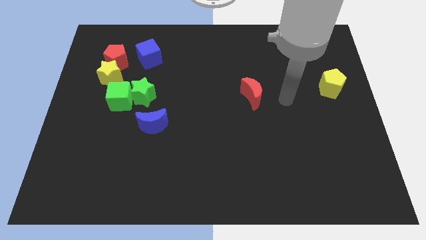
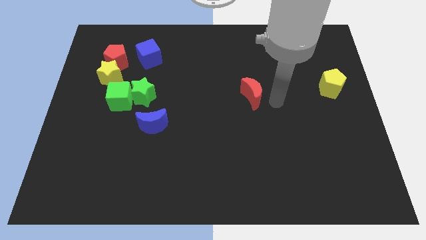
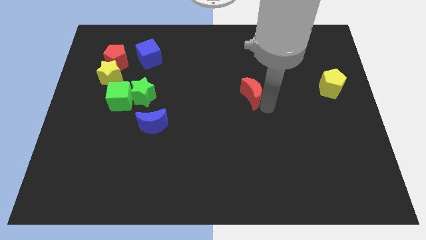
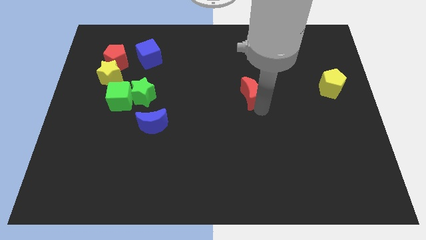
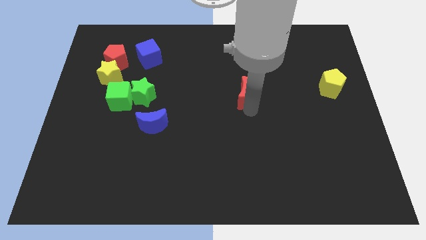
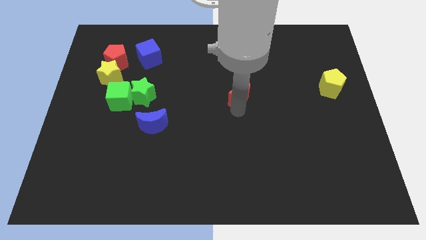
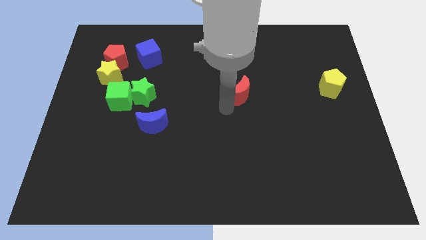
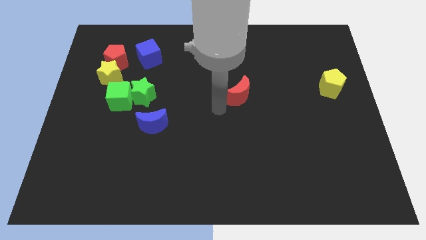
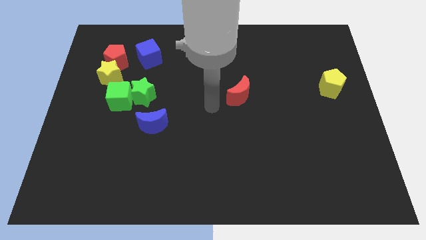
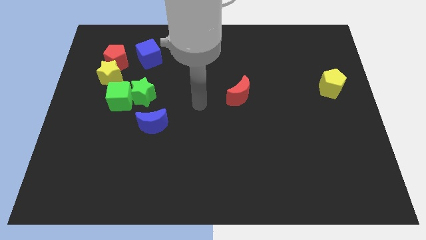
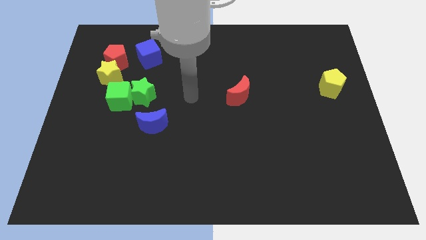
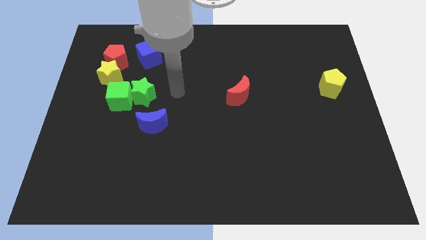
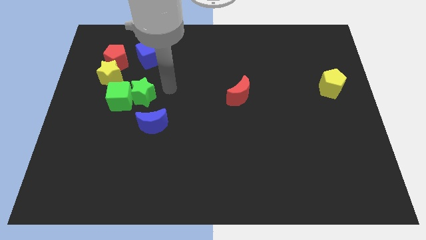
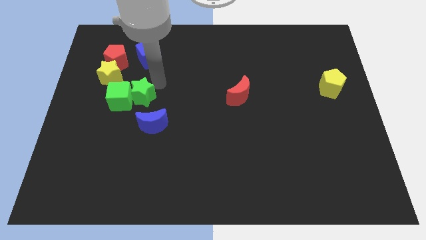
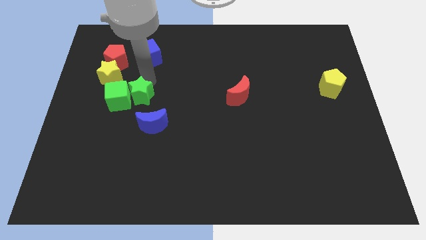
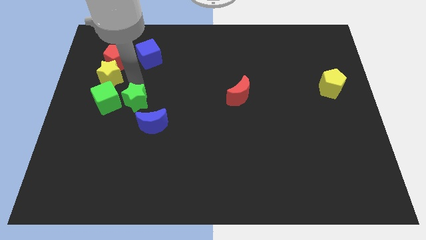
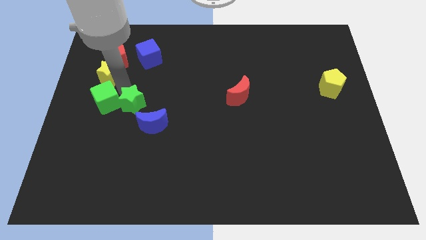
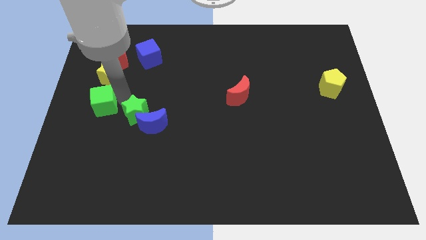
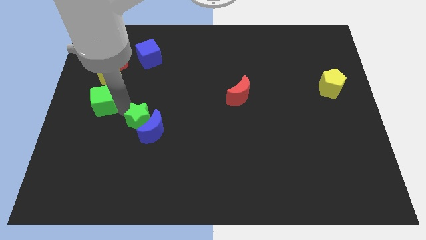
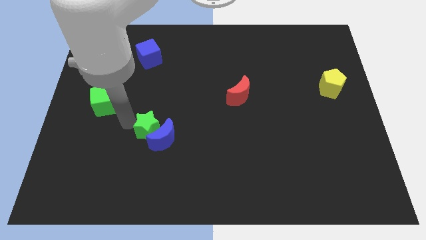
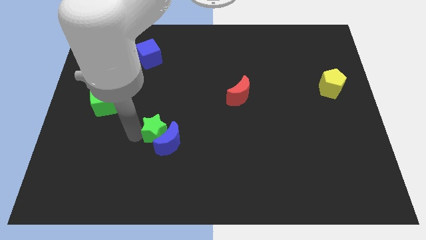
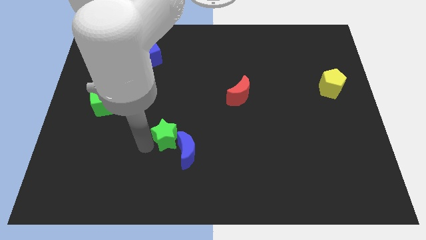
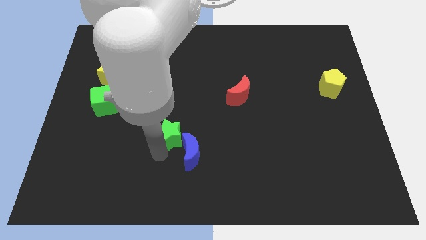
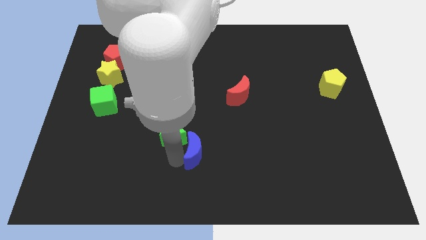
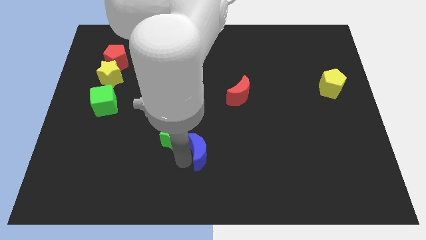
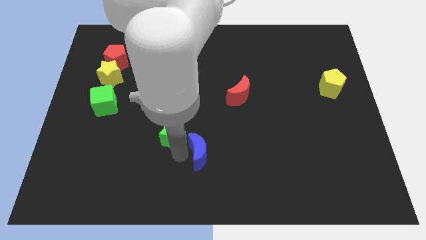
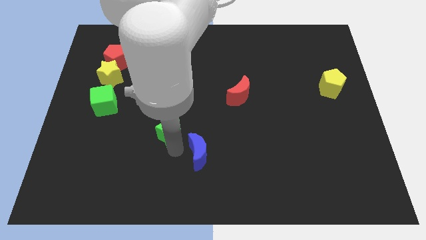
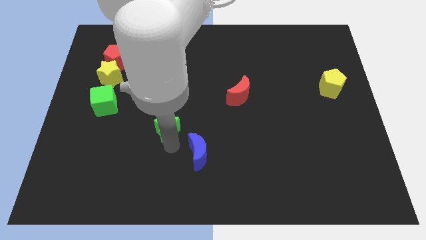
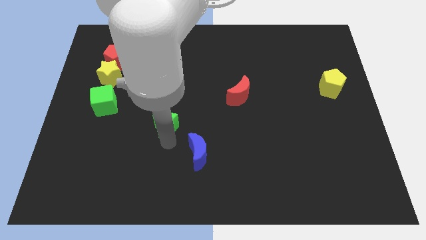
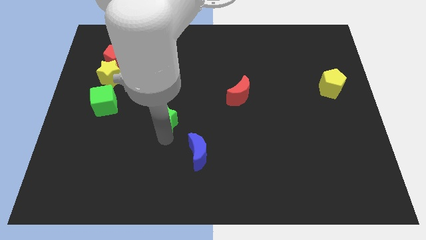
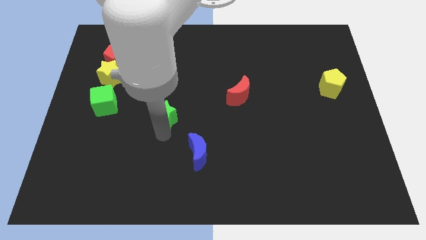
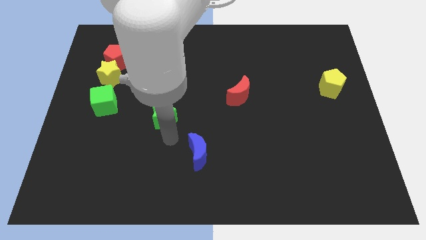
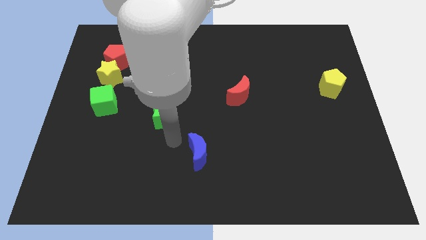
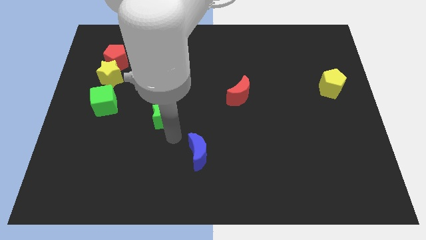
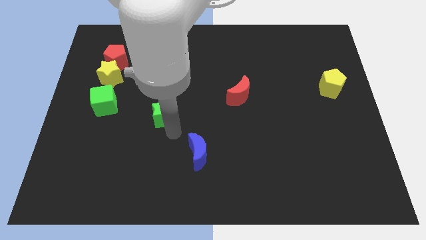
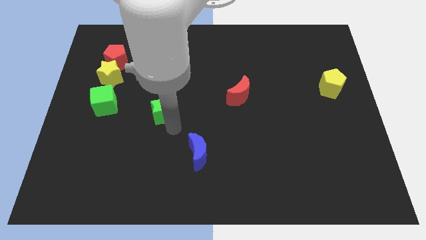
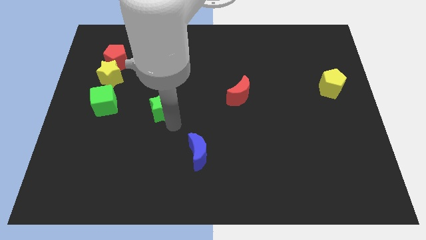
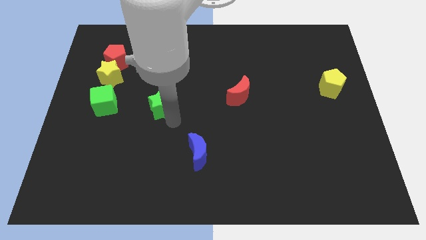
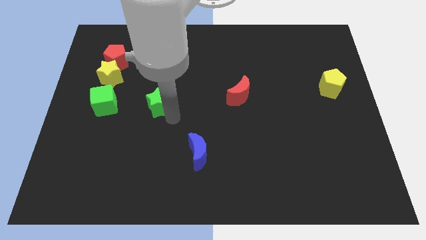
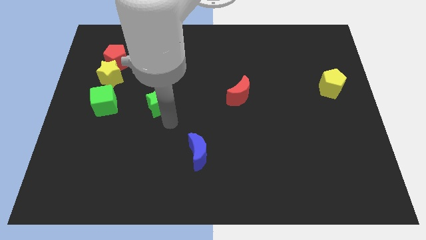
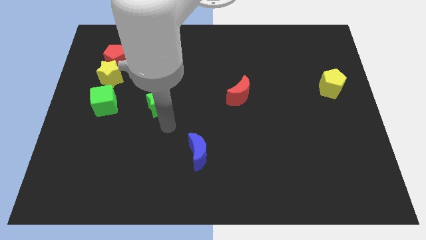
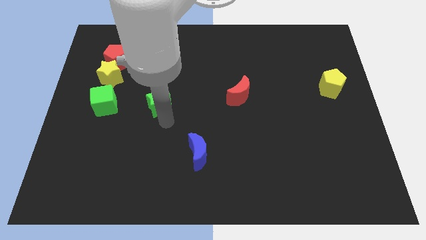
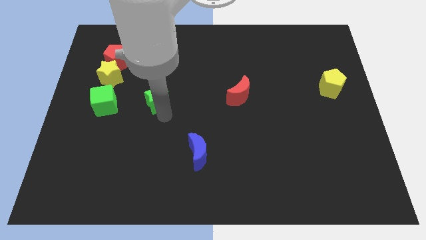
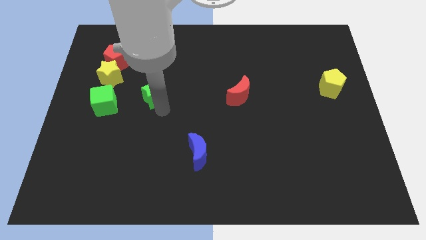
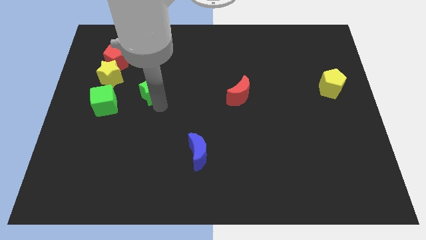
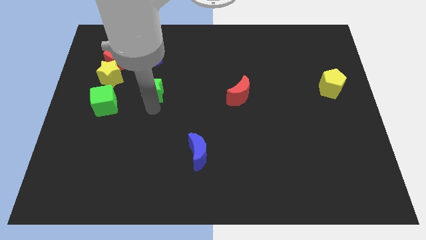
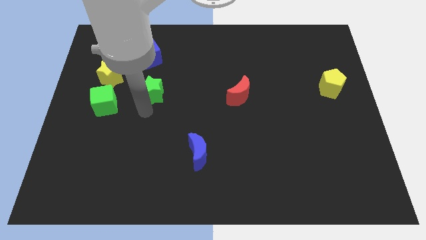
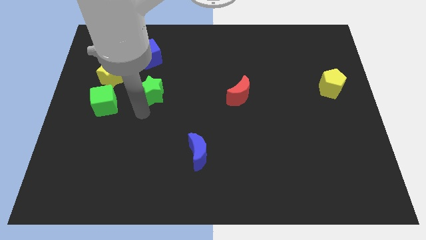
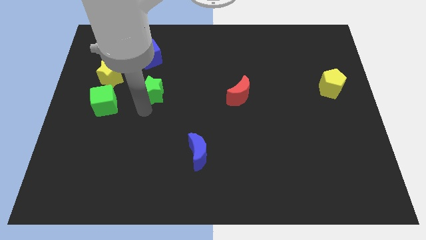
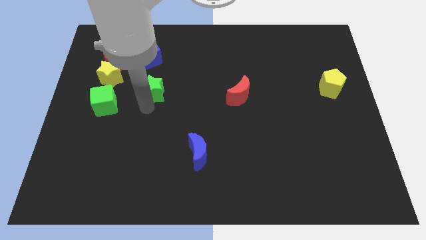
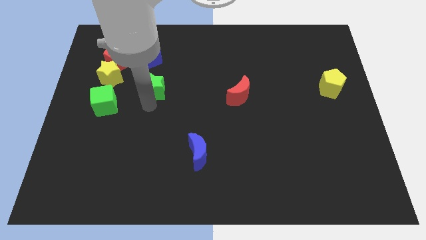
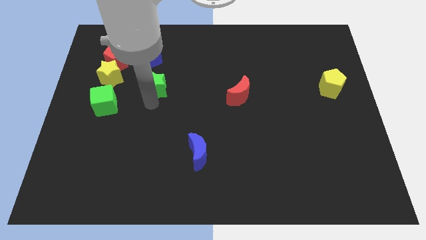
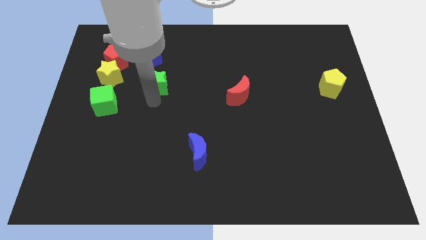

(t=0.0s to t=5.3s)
put the green star to the bottom right side of the blue cube

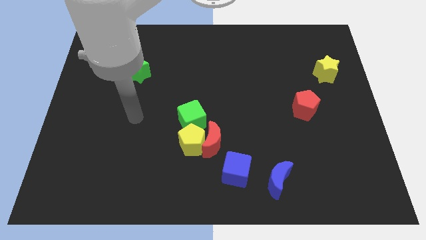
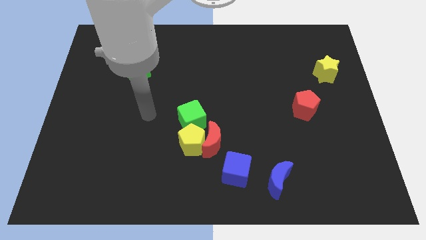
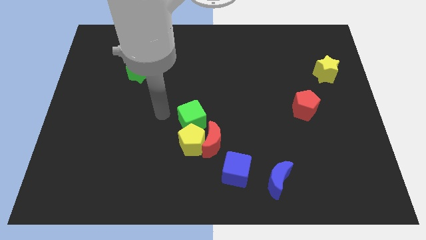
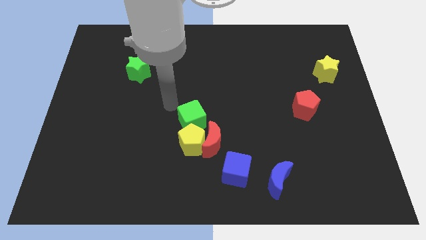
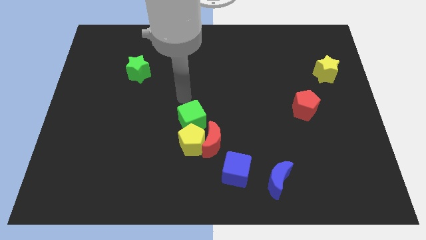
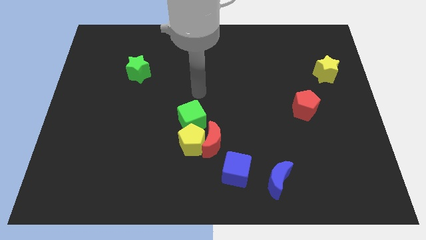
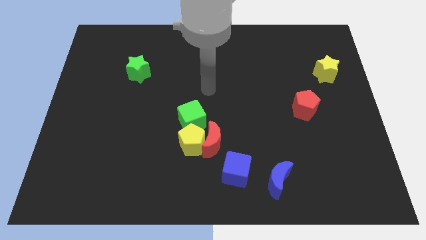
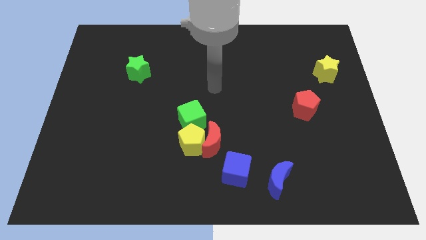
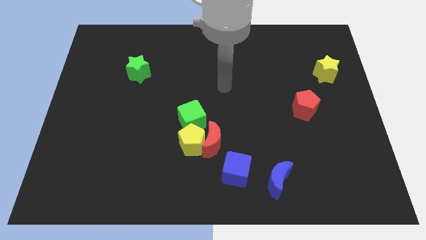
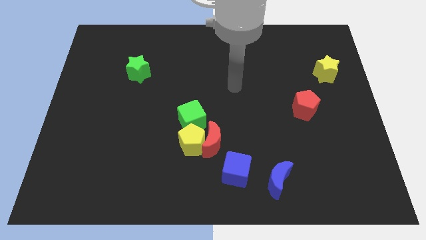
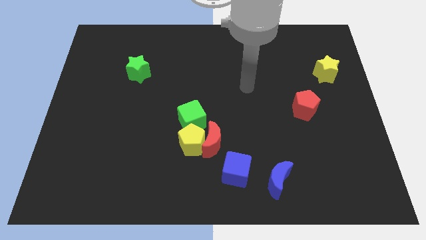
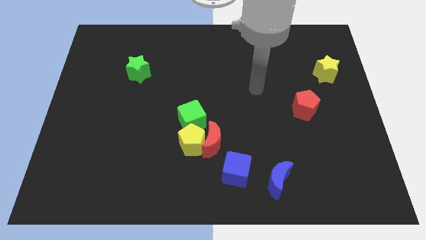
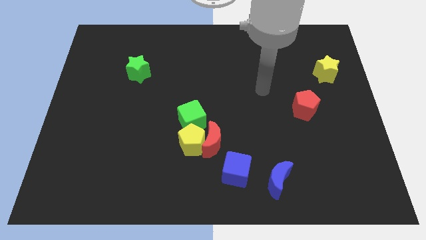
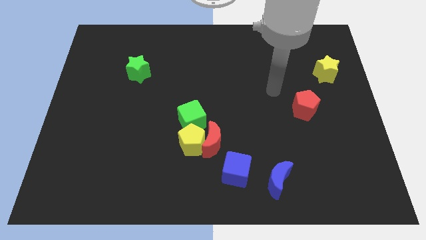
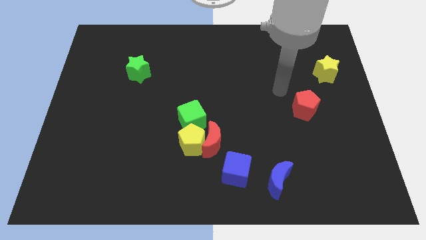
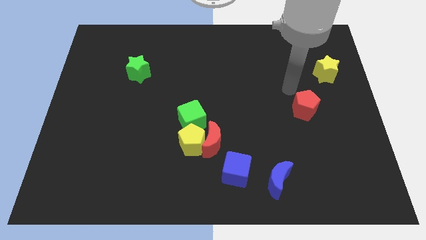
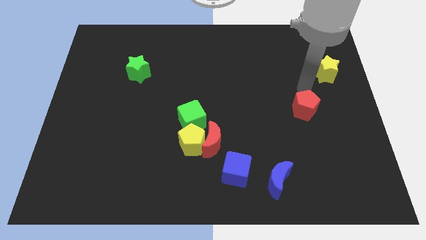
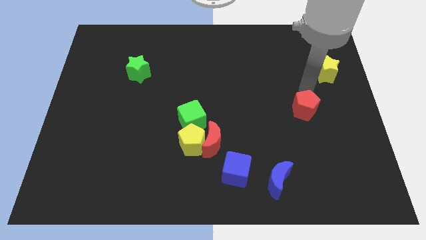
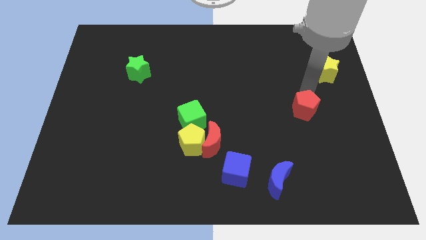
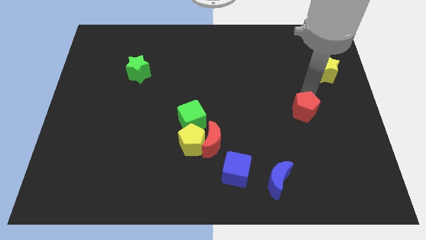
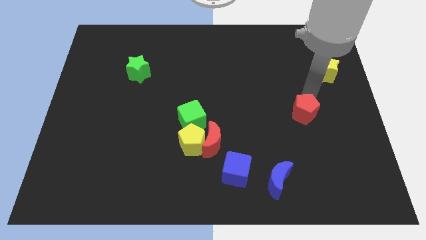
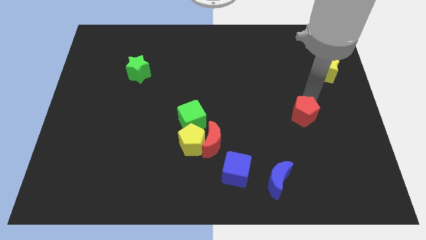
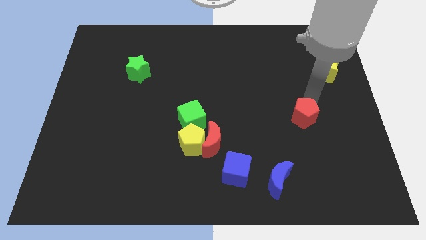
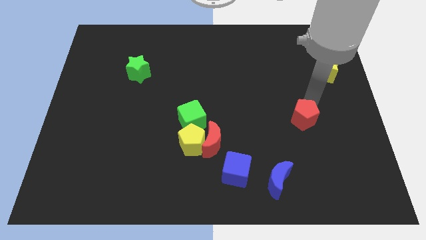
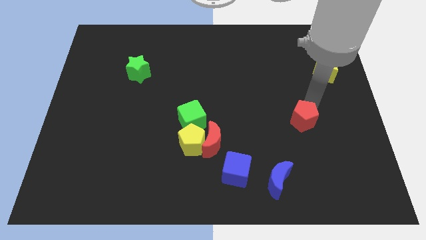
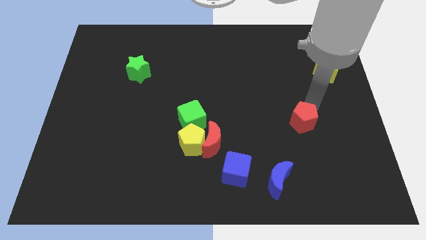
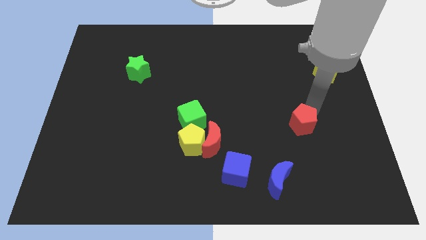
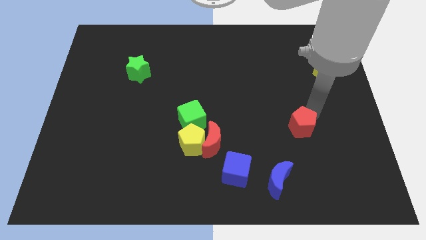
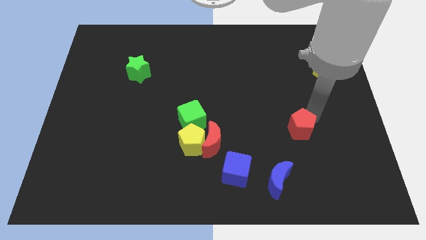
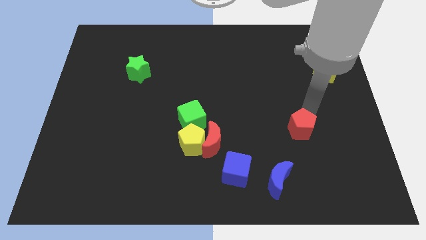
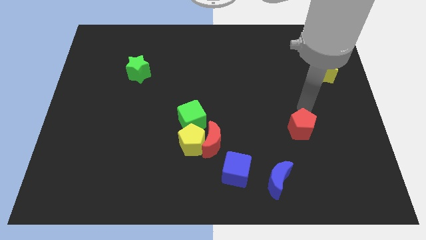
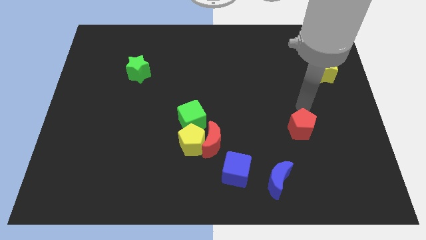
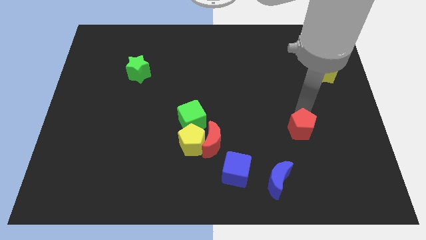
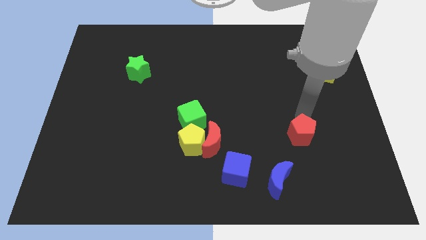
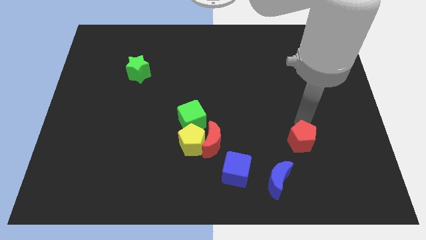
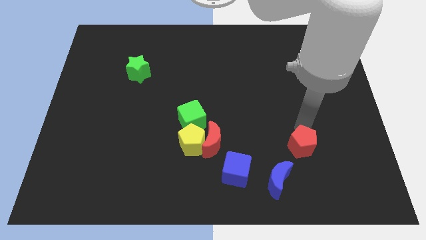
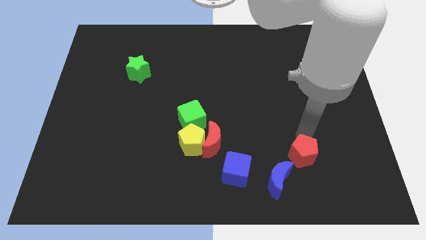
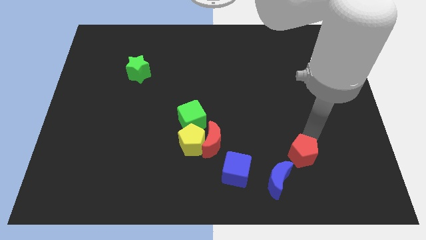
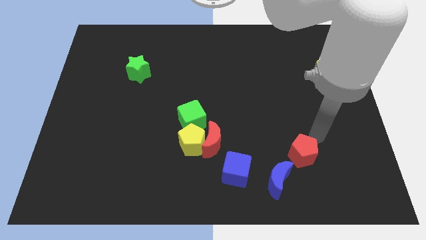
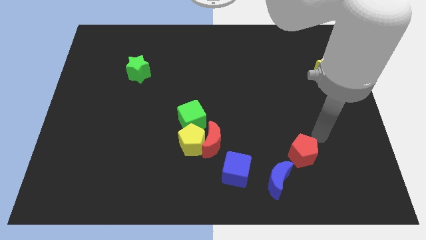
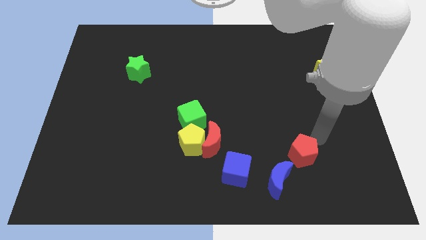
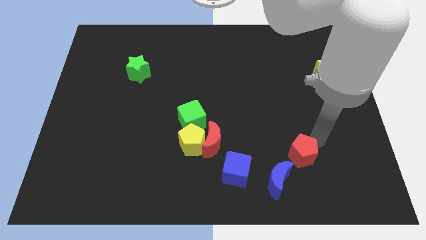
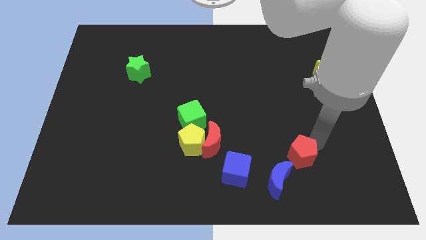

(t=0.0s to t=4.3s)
put the red pentagon to the right side of the blue cube
